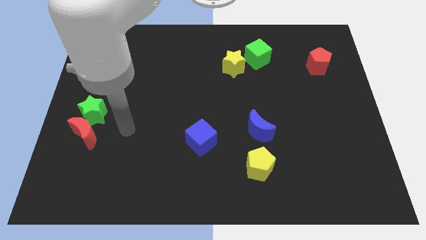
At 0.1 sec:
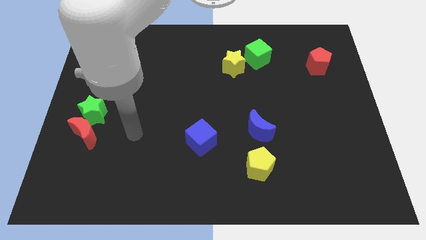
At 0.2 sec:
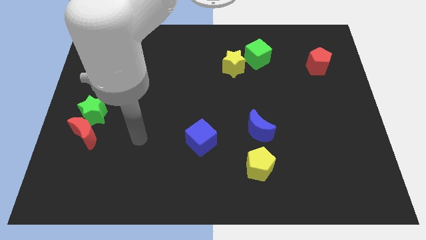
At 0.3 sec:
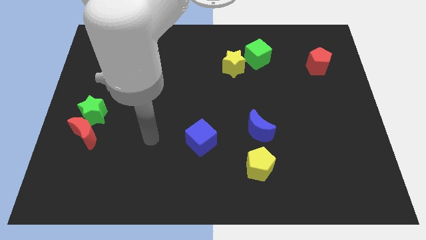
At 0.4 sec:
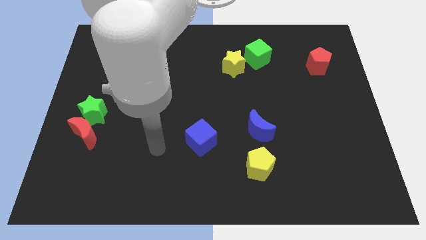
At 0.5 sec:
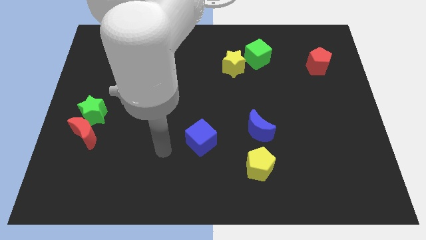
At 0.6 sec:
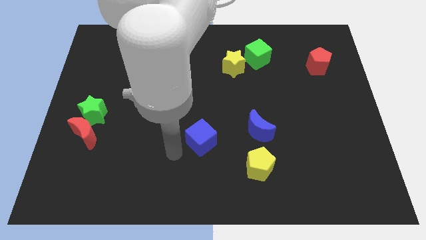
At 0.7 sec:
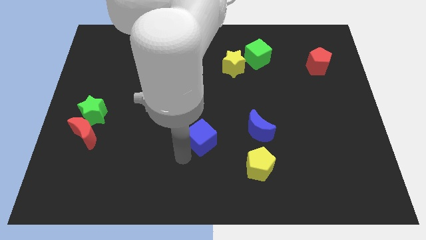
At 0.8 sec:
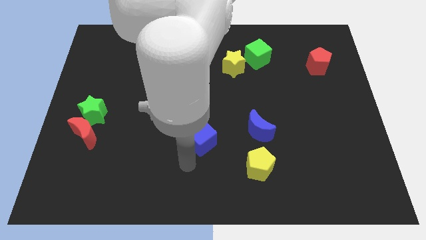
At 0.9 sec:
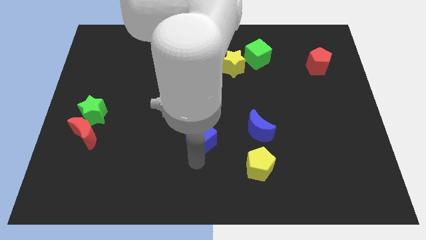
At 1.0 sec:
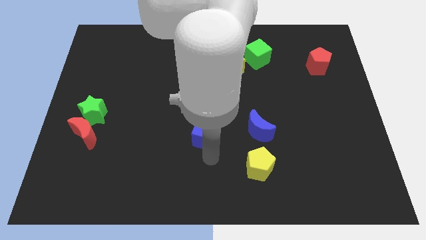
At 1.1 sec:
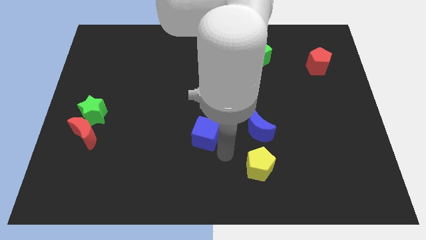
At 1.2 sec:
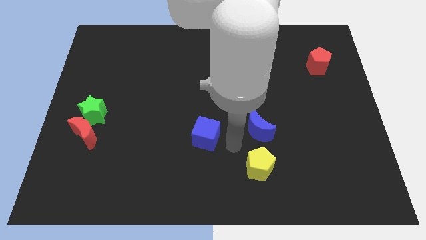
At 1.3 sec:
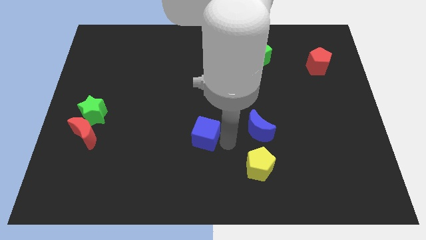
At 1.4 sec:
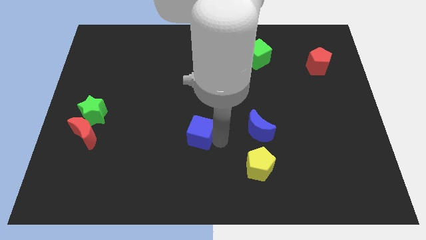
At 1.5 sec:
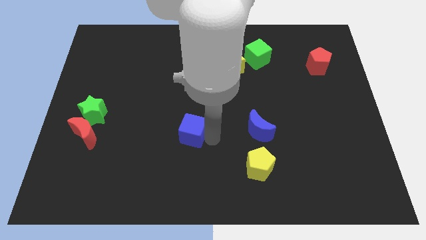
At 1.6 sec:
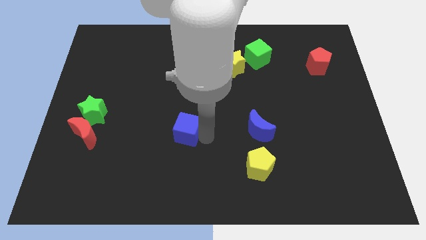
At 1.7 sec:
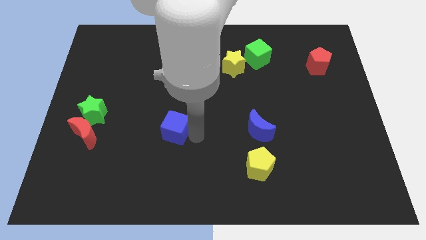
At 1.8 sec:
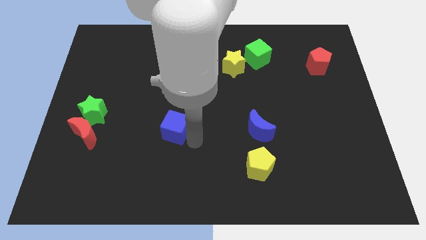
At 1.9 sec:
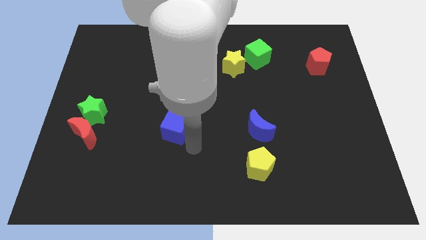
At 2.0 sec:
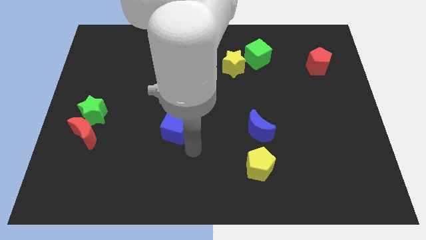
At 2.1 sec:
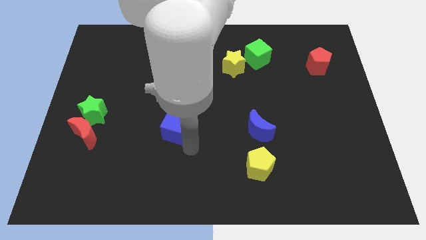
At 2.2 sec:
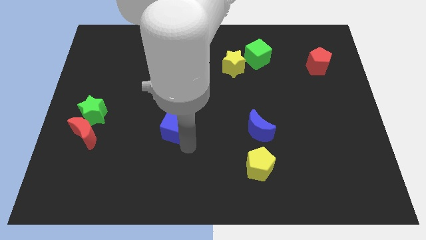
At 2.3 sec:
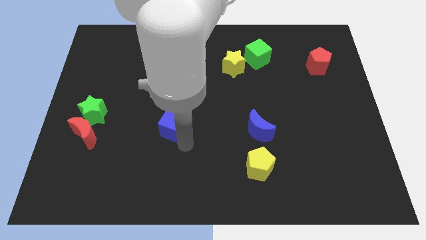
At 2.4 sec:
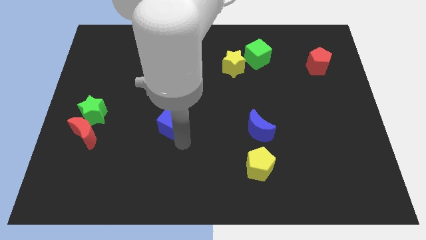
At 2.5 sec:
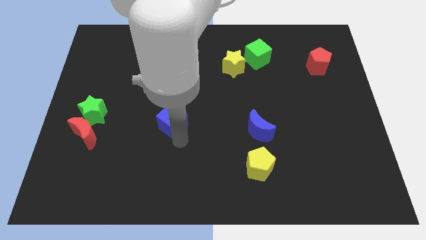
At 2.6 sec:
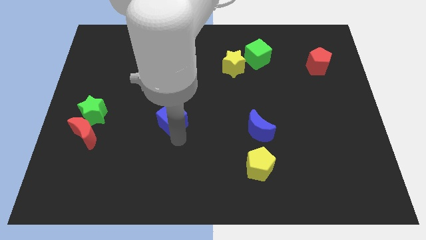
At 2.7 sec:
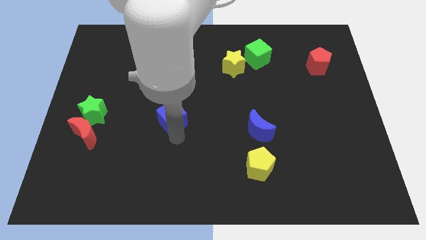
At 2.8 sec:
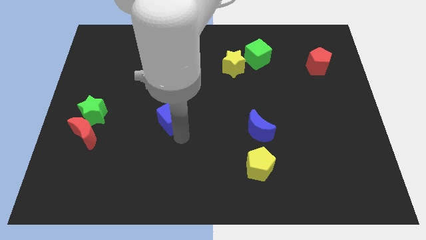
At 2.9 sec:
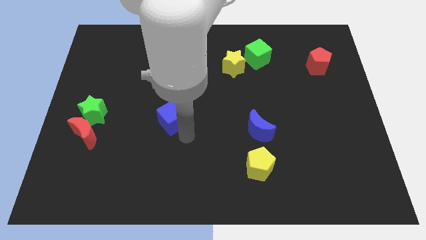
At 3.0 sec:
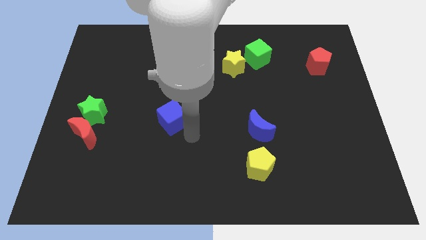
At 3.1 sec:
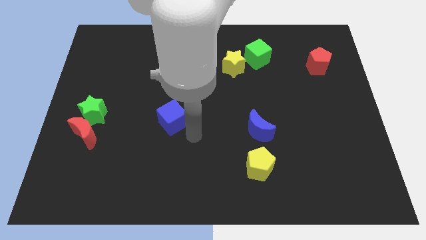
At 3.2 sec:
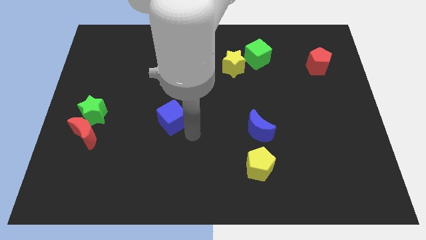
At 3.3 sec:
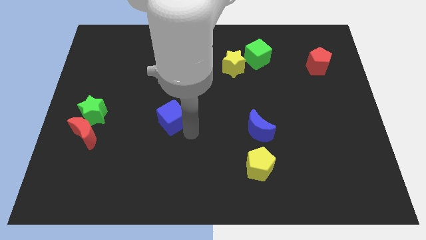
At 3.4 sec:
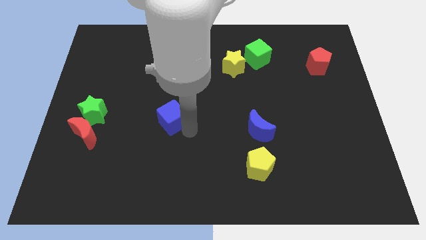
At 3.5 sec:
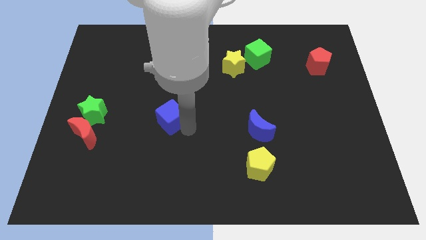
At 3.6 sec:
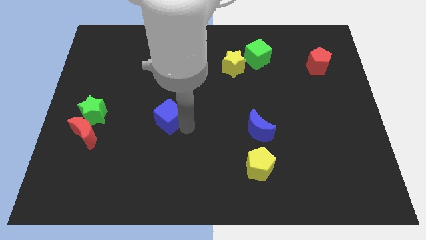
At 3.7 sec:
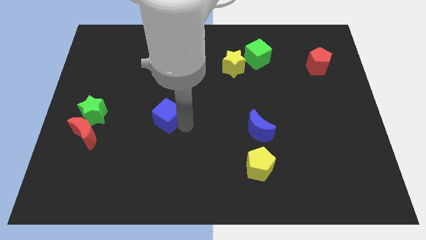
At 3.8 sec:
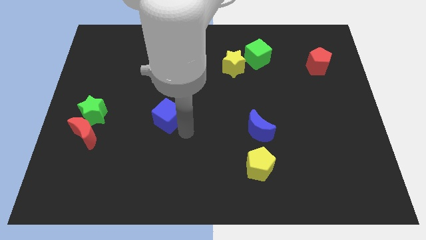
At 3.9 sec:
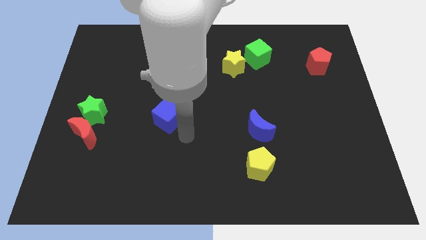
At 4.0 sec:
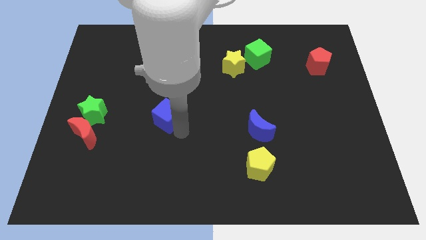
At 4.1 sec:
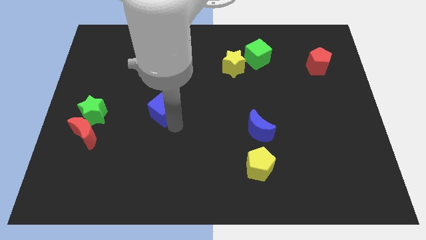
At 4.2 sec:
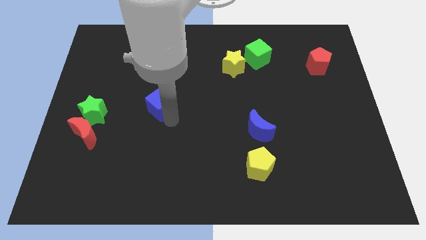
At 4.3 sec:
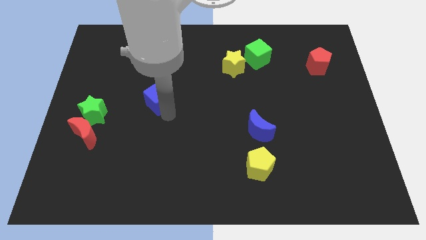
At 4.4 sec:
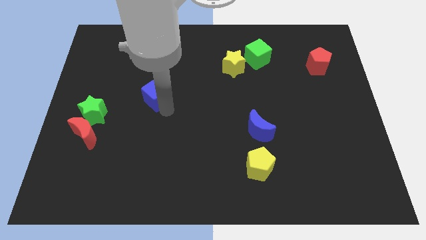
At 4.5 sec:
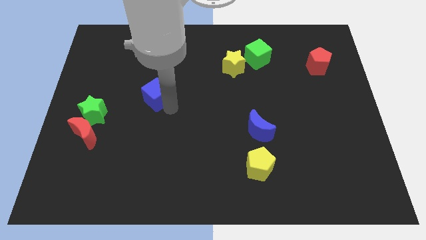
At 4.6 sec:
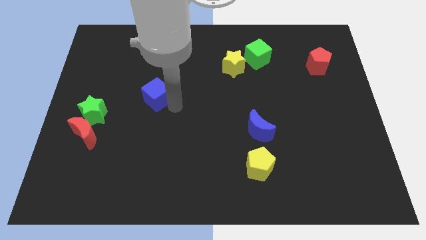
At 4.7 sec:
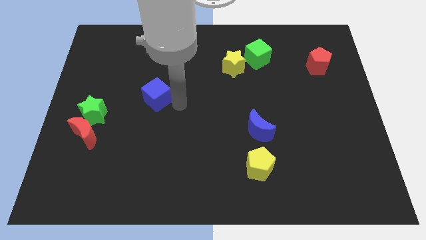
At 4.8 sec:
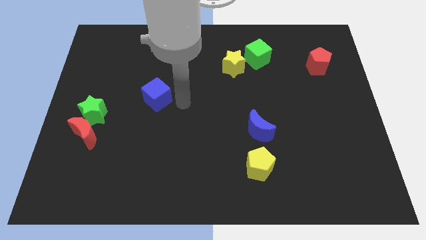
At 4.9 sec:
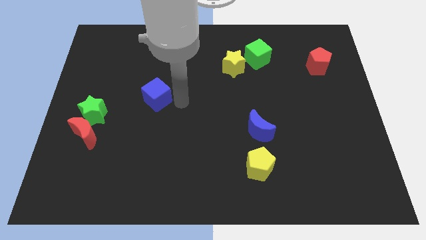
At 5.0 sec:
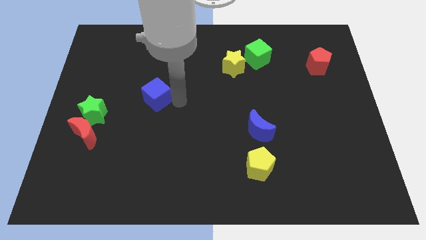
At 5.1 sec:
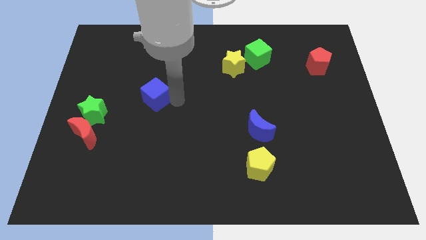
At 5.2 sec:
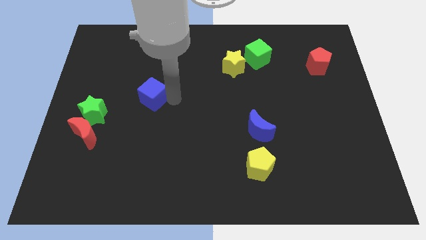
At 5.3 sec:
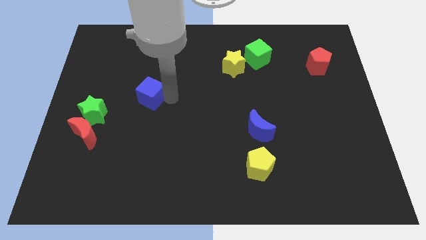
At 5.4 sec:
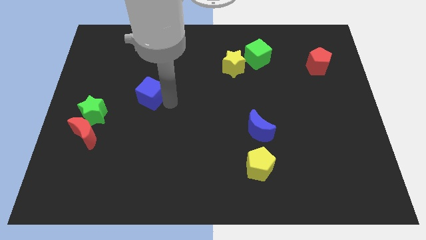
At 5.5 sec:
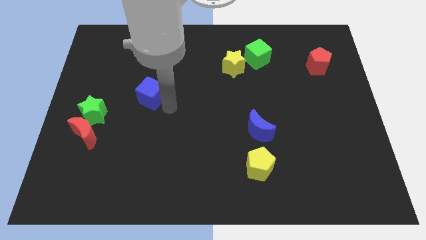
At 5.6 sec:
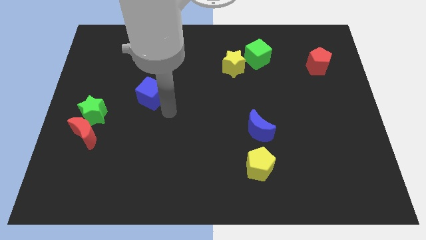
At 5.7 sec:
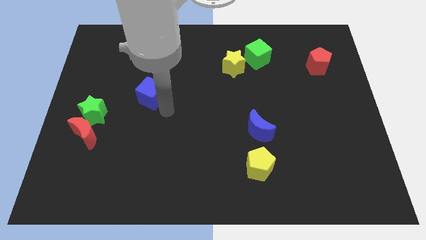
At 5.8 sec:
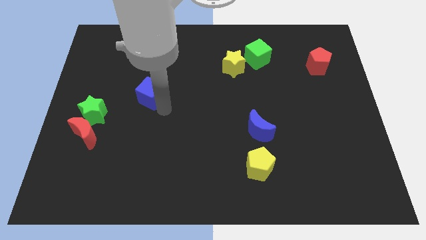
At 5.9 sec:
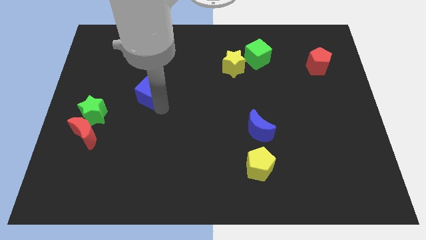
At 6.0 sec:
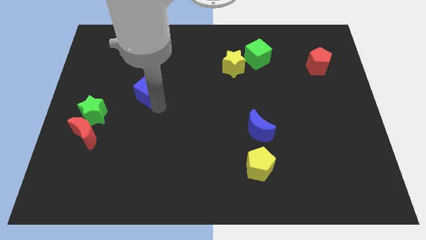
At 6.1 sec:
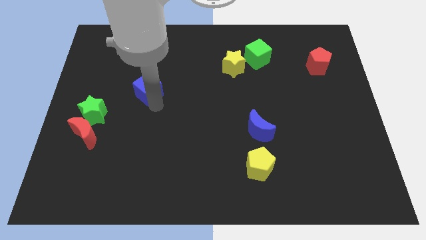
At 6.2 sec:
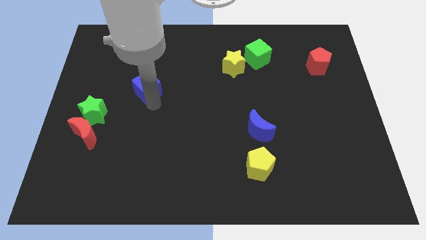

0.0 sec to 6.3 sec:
push the blue cube upwards and to the left diagonally

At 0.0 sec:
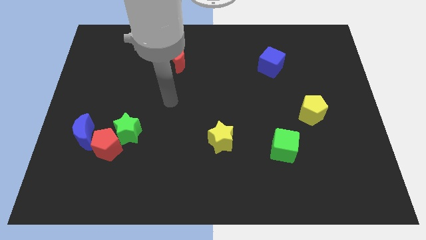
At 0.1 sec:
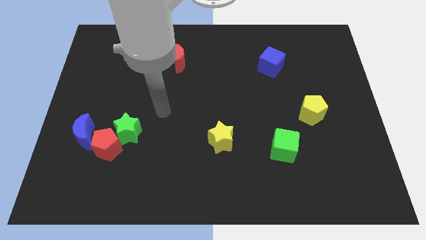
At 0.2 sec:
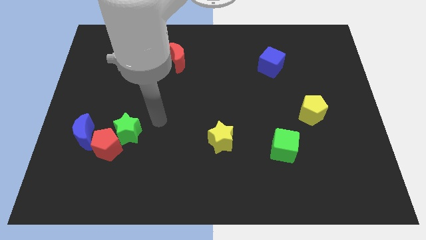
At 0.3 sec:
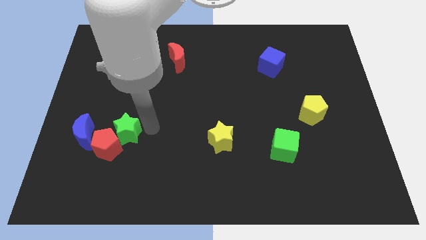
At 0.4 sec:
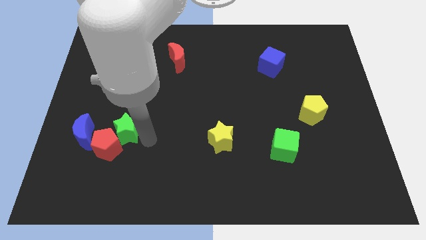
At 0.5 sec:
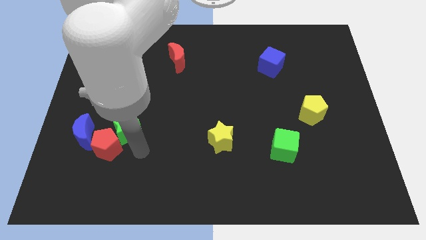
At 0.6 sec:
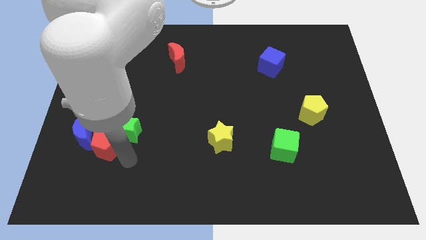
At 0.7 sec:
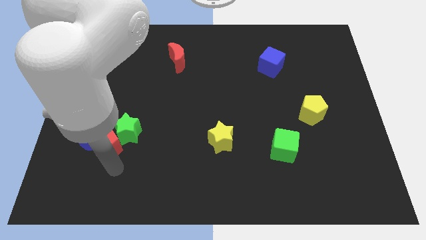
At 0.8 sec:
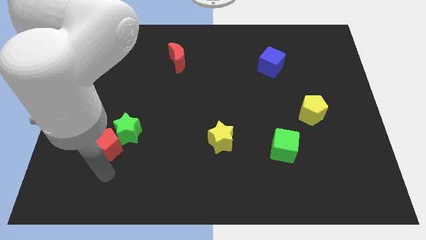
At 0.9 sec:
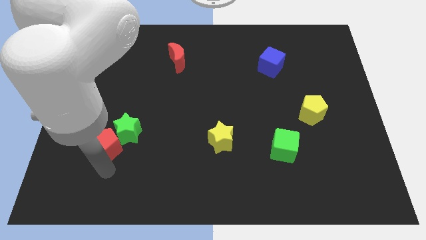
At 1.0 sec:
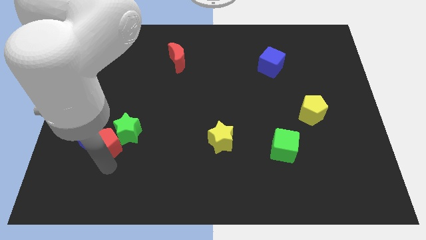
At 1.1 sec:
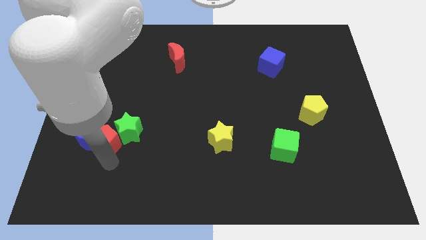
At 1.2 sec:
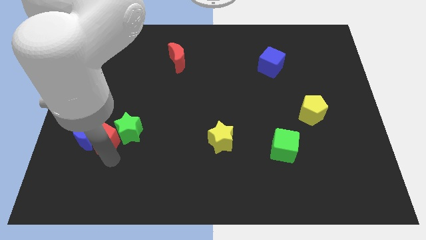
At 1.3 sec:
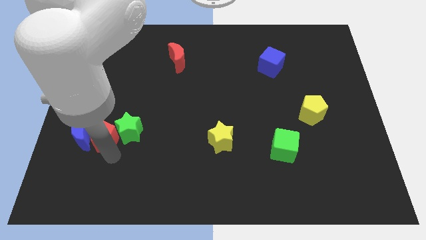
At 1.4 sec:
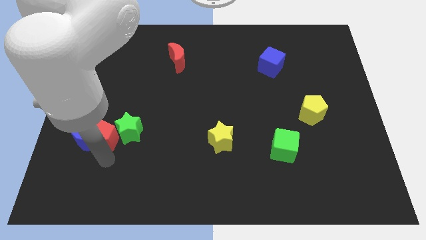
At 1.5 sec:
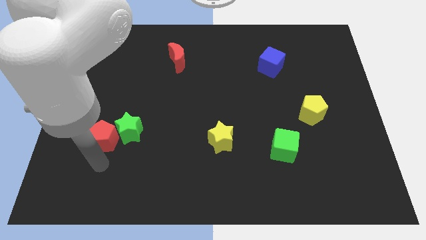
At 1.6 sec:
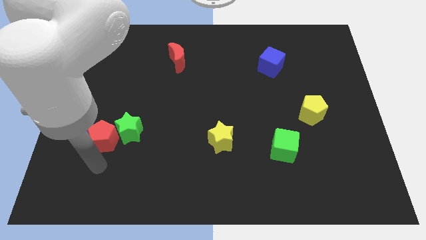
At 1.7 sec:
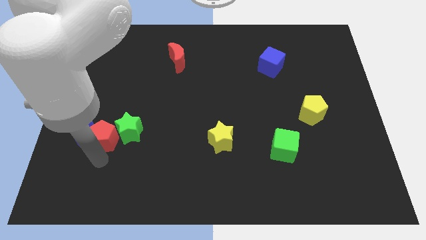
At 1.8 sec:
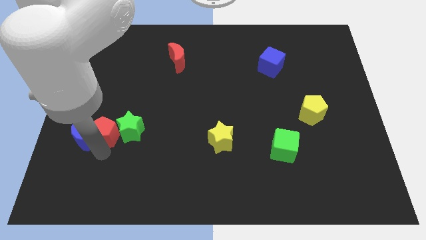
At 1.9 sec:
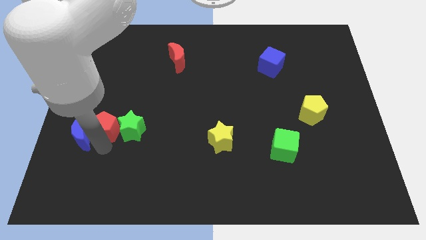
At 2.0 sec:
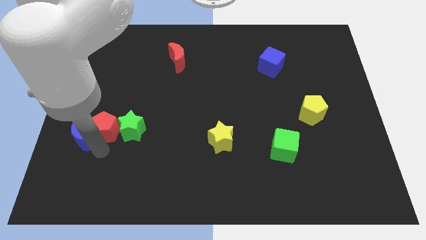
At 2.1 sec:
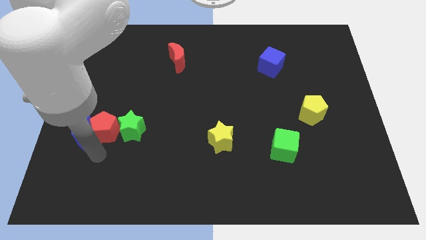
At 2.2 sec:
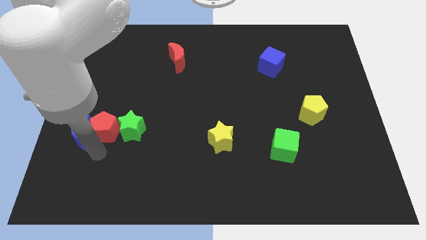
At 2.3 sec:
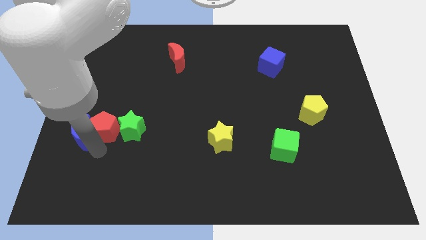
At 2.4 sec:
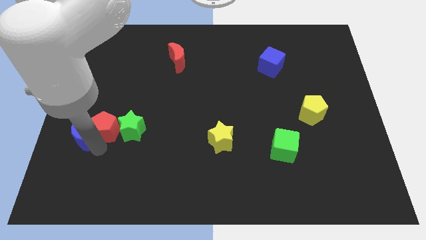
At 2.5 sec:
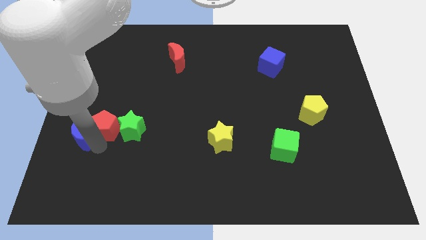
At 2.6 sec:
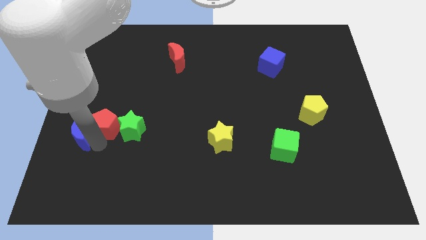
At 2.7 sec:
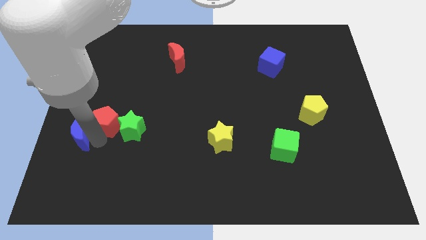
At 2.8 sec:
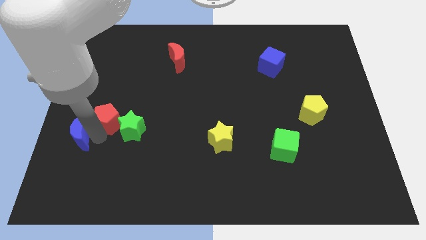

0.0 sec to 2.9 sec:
move the red pentagon up a little
